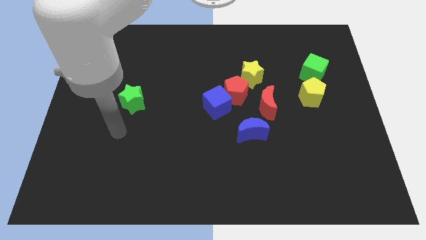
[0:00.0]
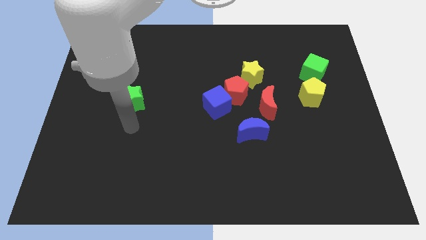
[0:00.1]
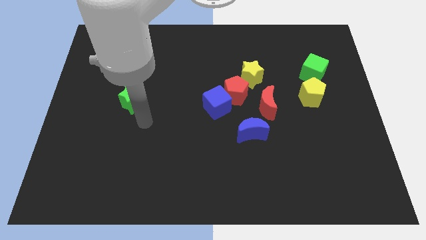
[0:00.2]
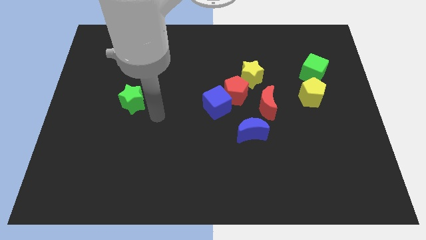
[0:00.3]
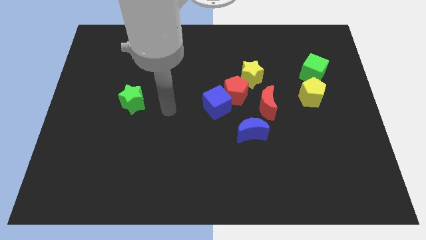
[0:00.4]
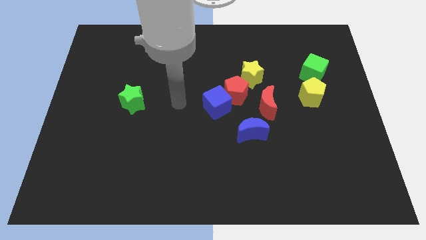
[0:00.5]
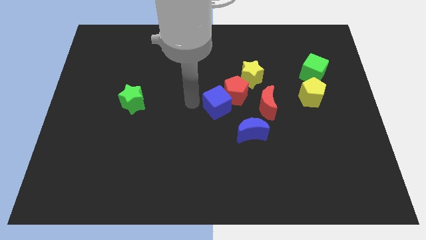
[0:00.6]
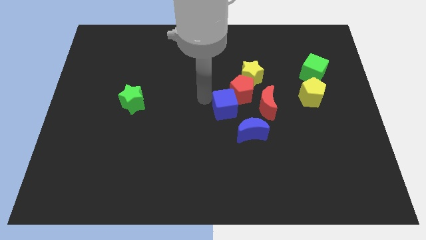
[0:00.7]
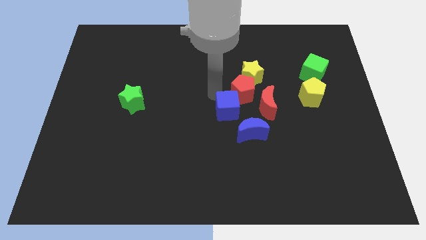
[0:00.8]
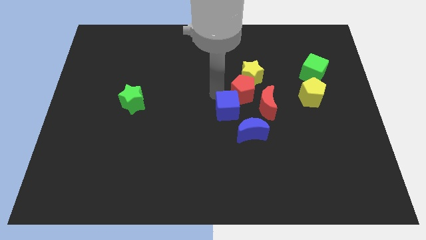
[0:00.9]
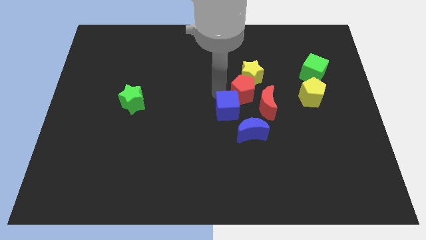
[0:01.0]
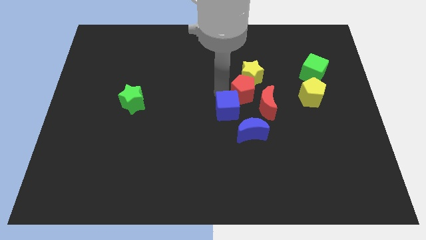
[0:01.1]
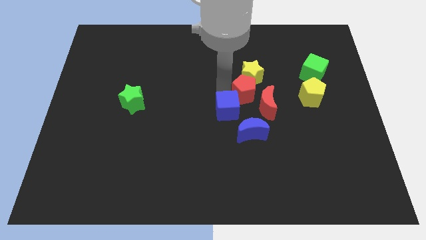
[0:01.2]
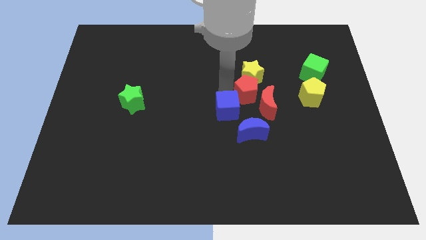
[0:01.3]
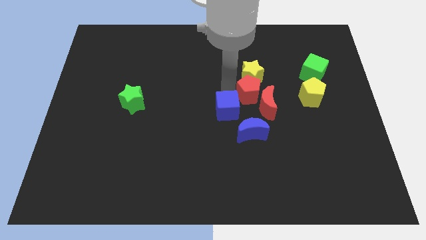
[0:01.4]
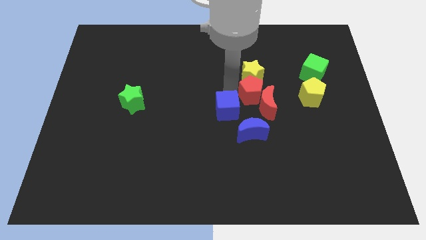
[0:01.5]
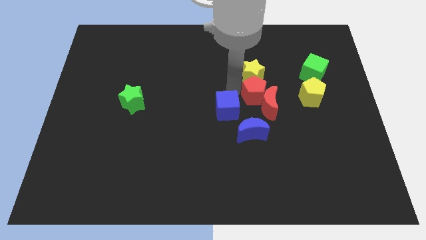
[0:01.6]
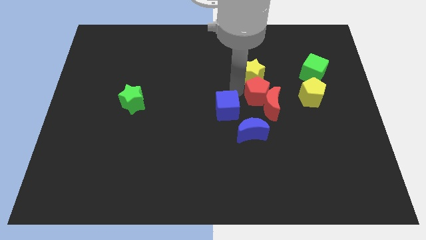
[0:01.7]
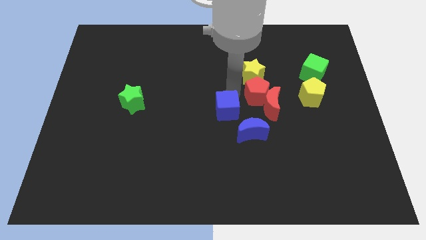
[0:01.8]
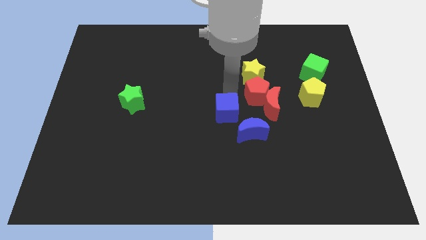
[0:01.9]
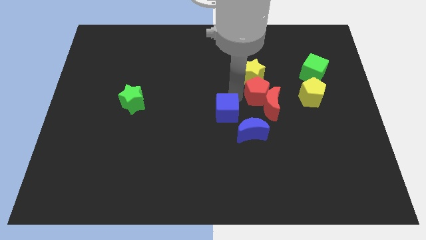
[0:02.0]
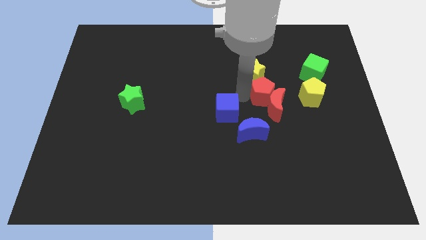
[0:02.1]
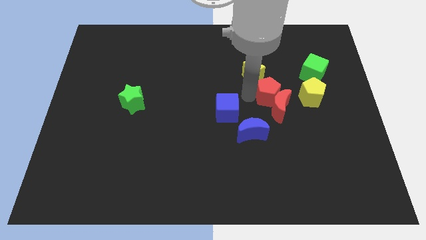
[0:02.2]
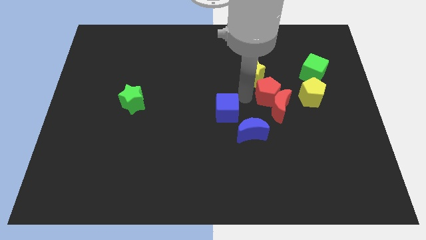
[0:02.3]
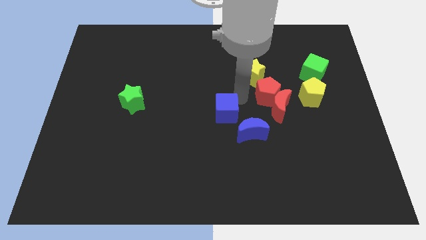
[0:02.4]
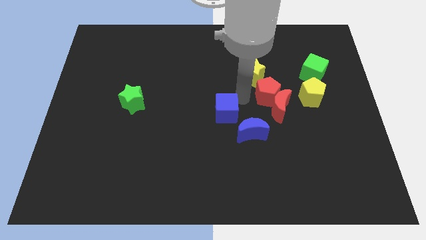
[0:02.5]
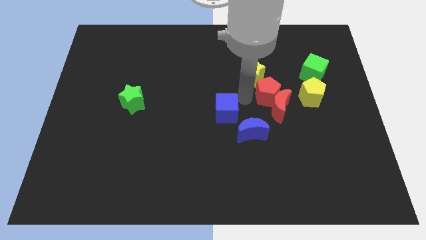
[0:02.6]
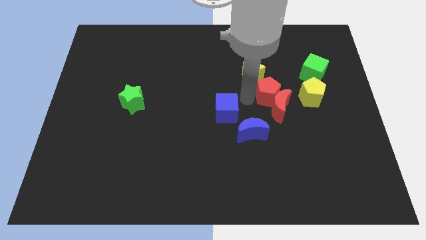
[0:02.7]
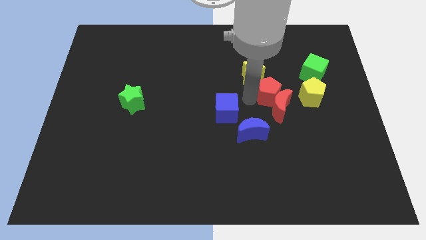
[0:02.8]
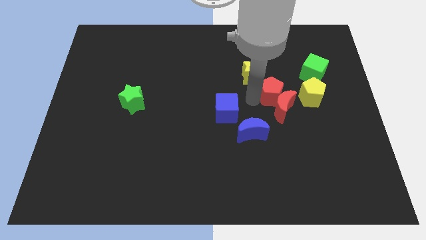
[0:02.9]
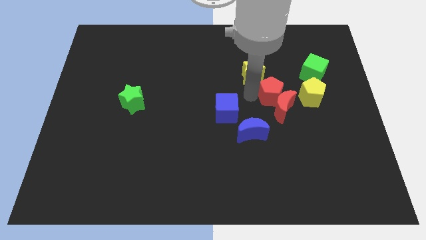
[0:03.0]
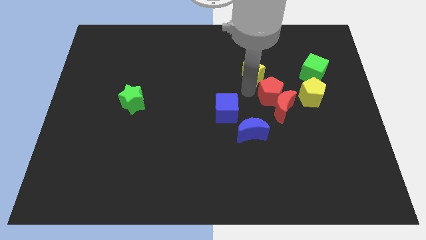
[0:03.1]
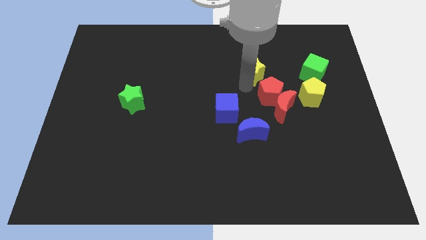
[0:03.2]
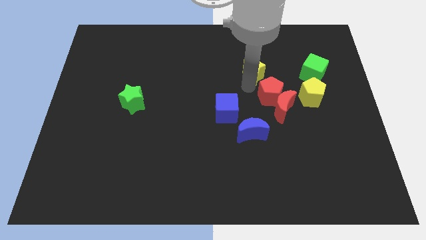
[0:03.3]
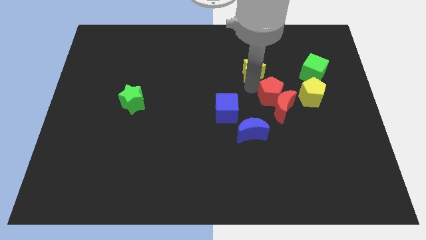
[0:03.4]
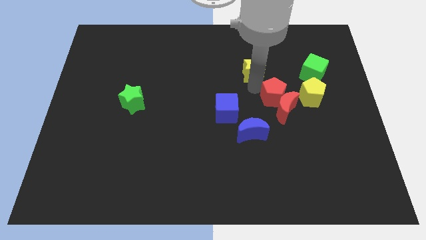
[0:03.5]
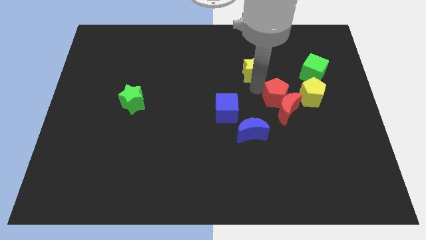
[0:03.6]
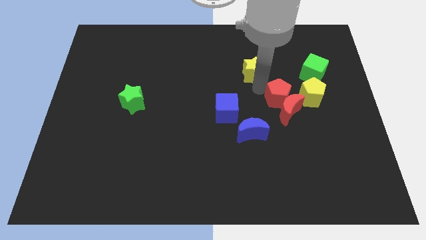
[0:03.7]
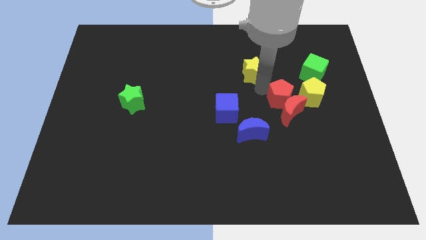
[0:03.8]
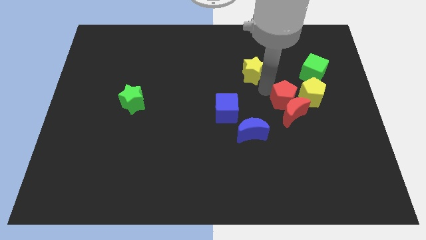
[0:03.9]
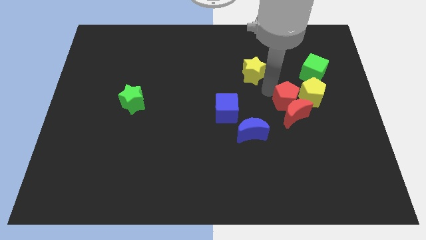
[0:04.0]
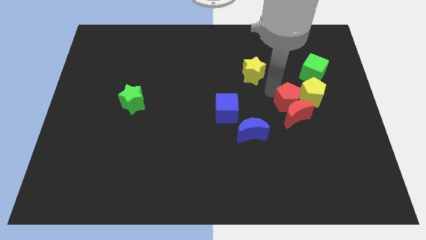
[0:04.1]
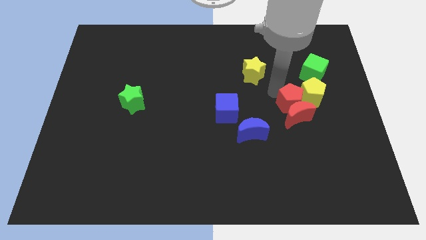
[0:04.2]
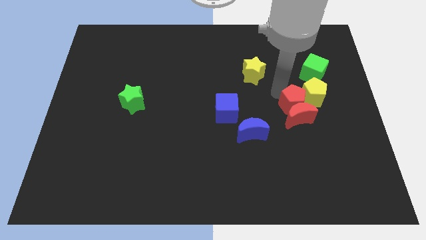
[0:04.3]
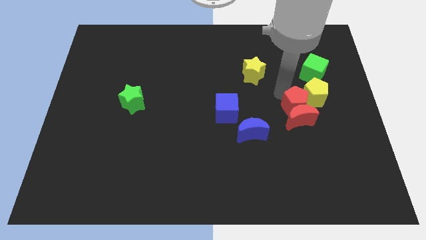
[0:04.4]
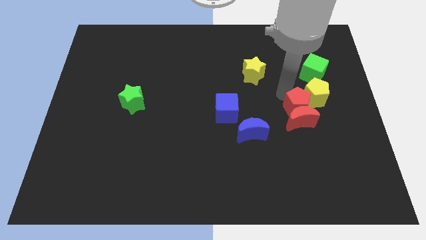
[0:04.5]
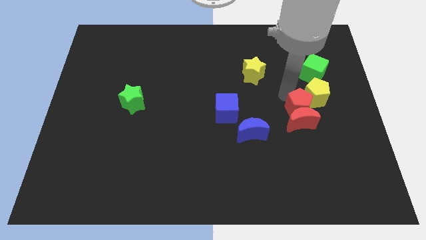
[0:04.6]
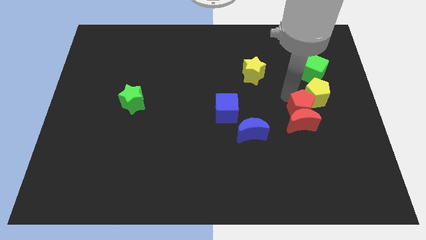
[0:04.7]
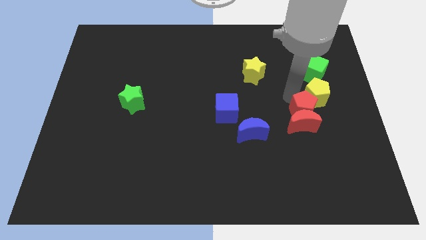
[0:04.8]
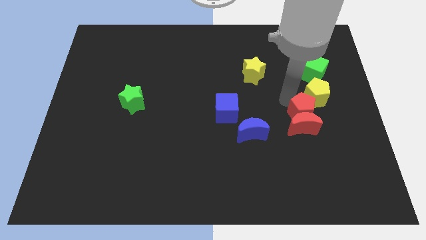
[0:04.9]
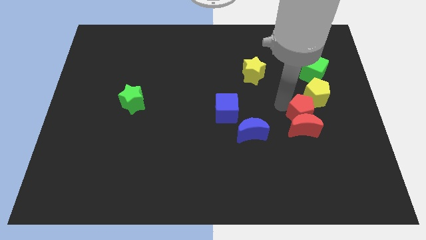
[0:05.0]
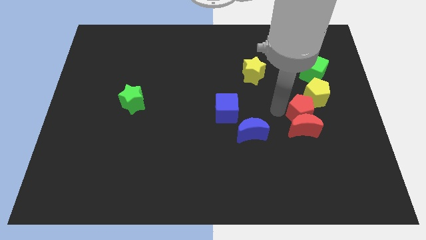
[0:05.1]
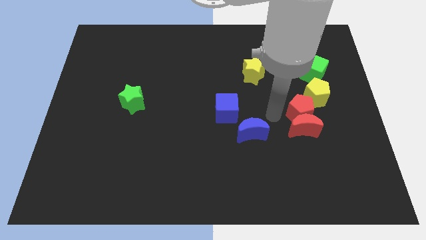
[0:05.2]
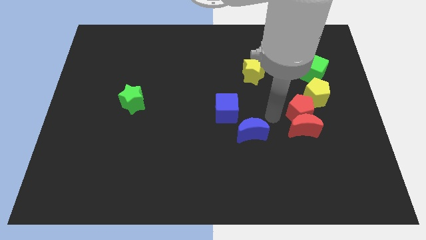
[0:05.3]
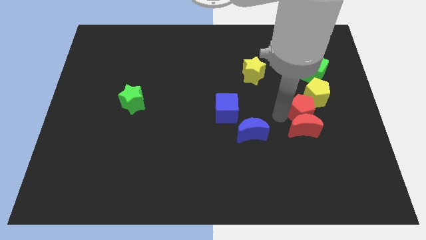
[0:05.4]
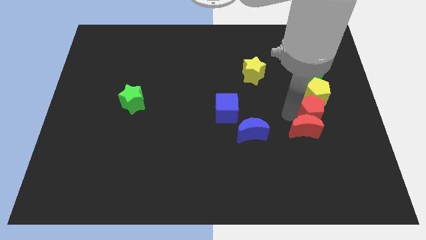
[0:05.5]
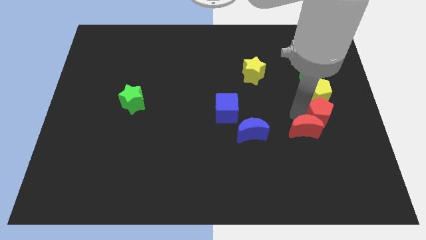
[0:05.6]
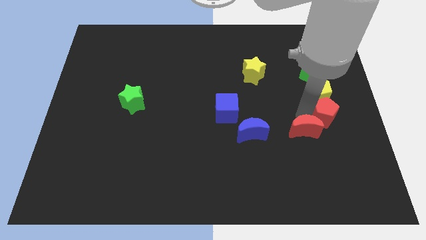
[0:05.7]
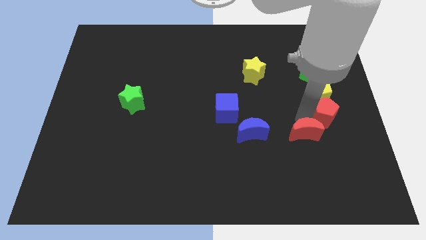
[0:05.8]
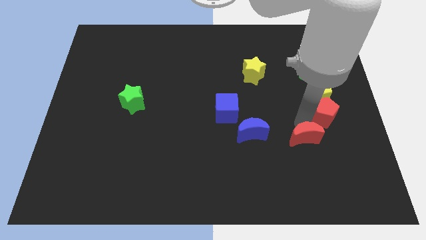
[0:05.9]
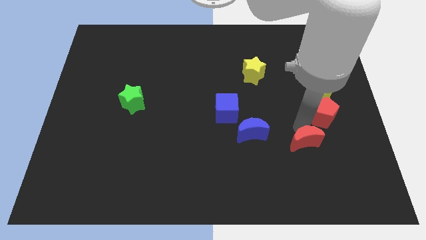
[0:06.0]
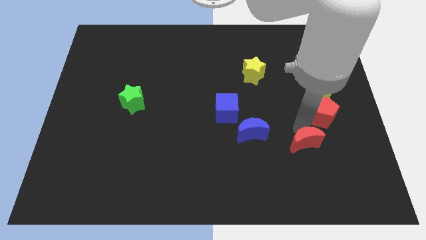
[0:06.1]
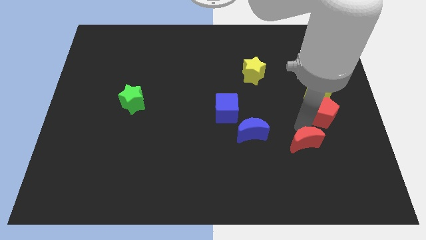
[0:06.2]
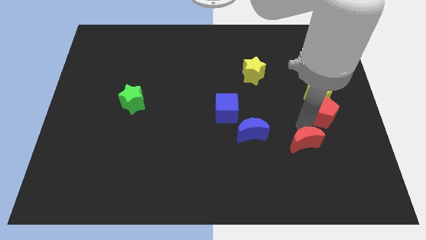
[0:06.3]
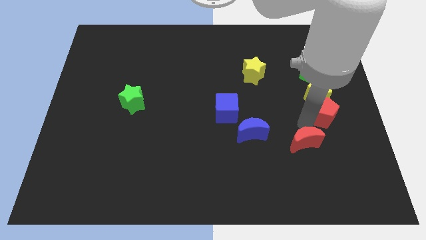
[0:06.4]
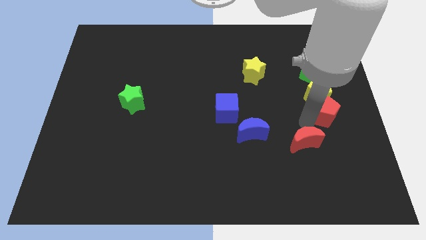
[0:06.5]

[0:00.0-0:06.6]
push the red pentagon to the center right

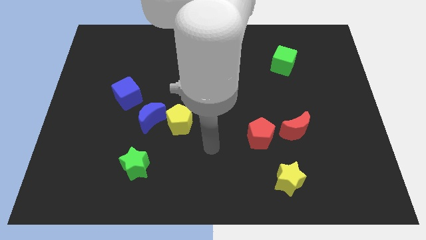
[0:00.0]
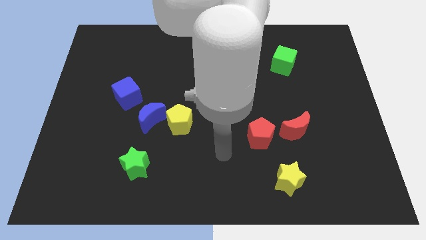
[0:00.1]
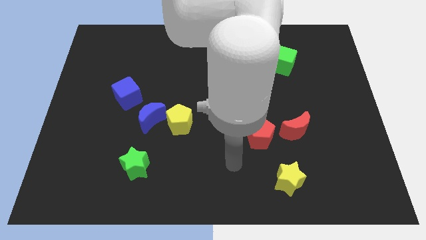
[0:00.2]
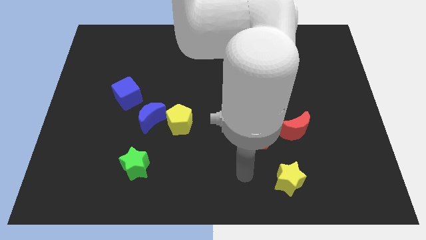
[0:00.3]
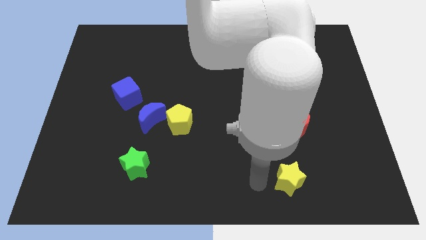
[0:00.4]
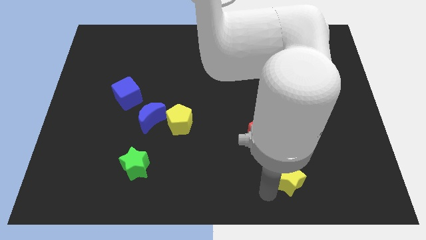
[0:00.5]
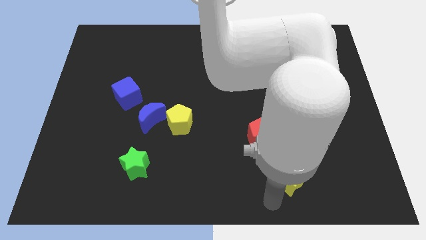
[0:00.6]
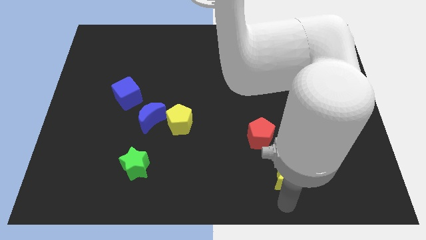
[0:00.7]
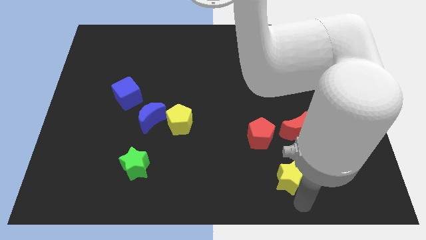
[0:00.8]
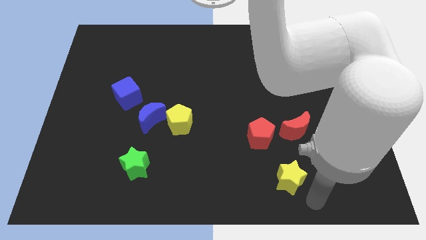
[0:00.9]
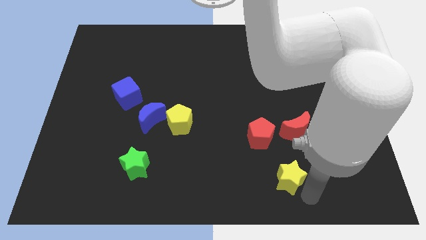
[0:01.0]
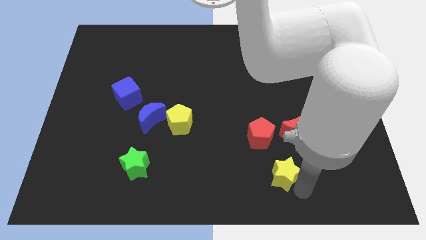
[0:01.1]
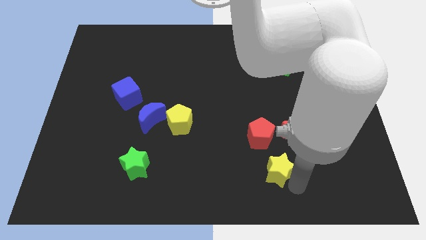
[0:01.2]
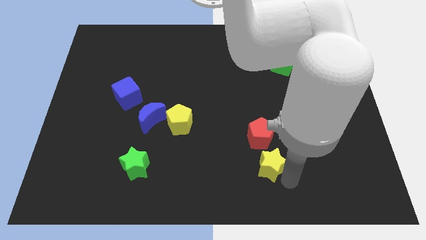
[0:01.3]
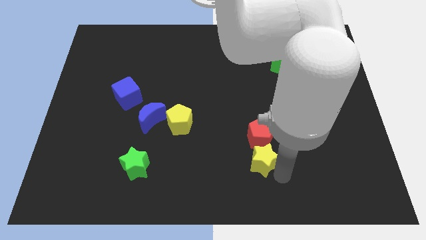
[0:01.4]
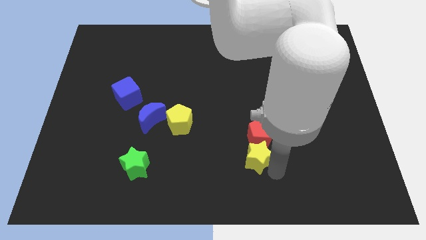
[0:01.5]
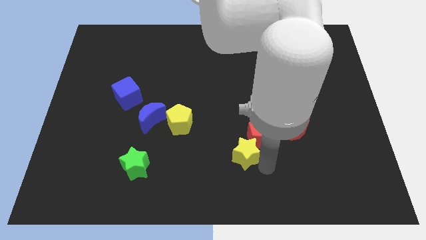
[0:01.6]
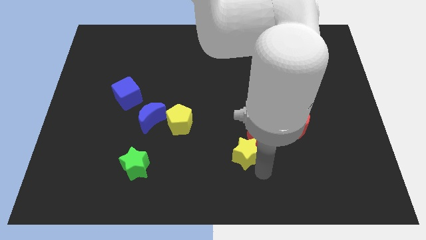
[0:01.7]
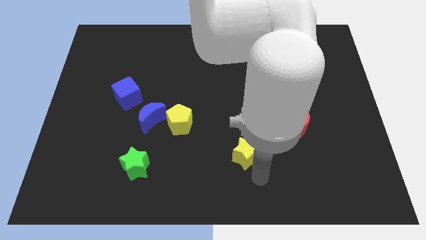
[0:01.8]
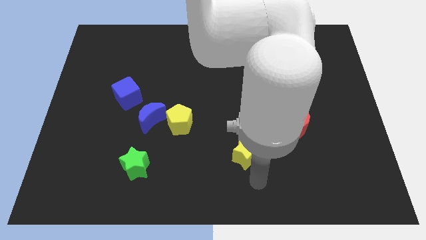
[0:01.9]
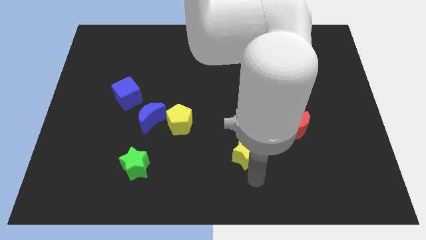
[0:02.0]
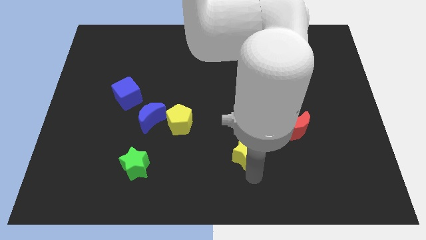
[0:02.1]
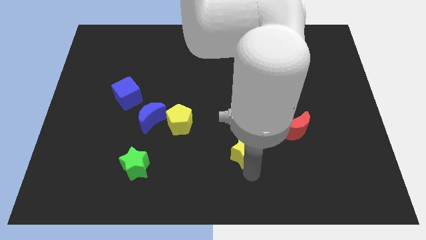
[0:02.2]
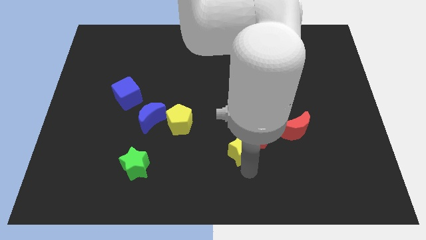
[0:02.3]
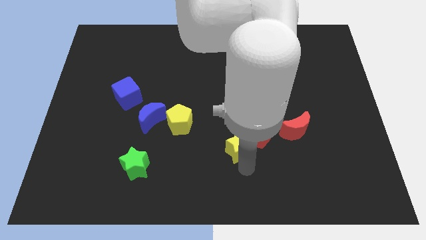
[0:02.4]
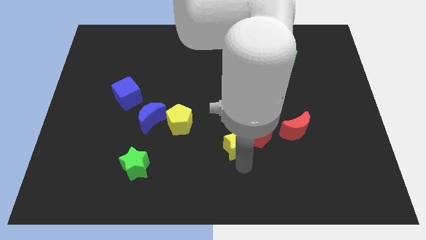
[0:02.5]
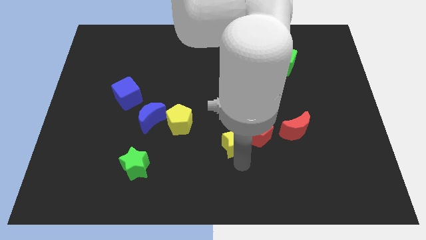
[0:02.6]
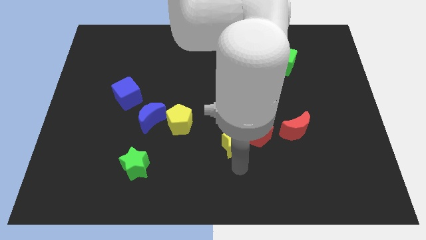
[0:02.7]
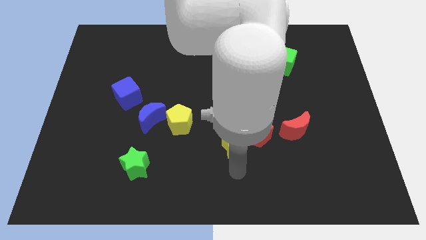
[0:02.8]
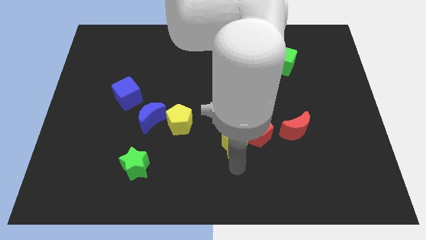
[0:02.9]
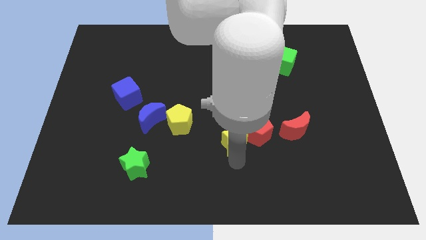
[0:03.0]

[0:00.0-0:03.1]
put the yellow star to the middle of the board
